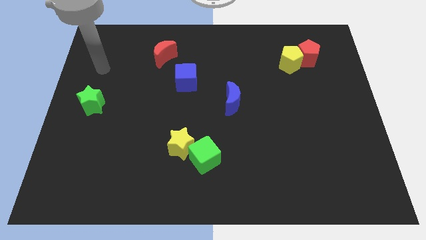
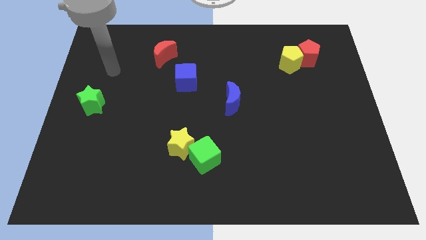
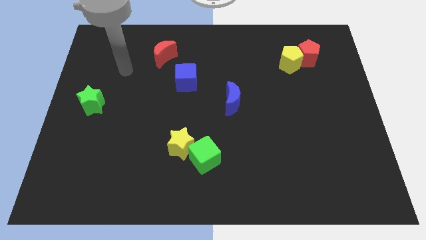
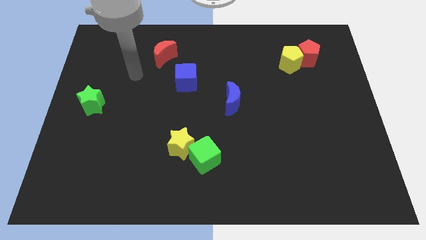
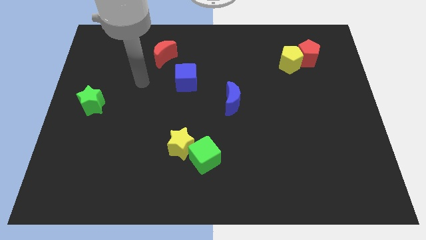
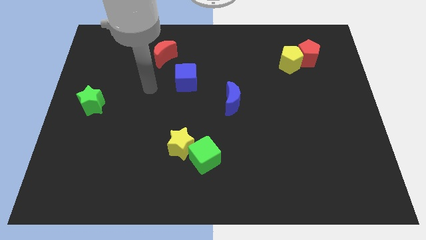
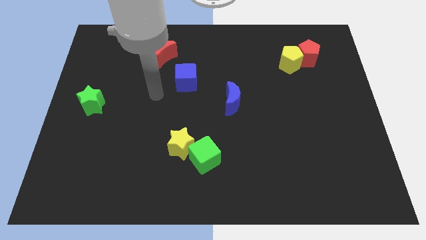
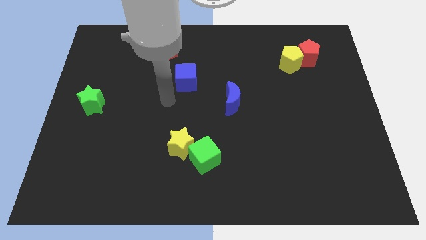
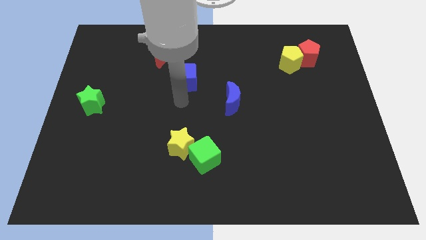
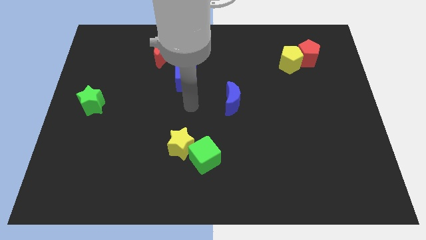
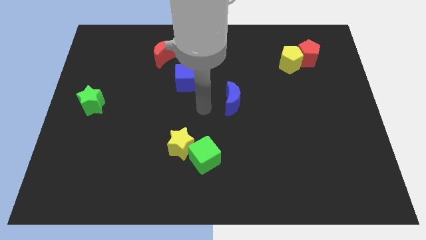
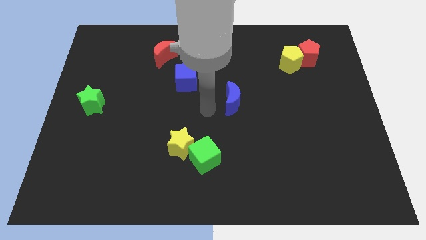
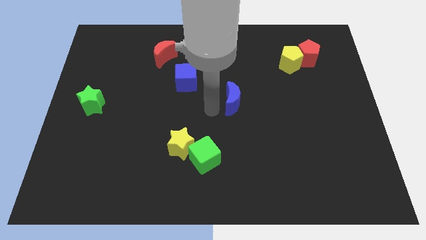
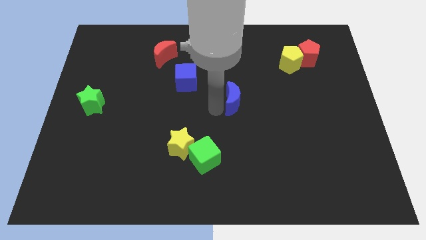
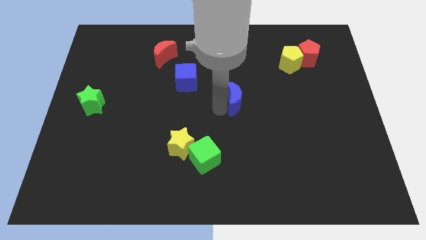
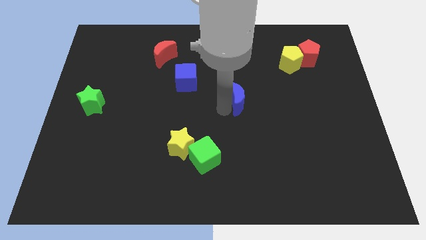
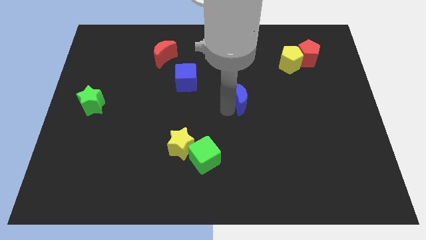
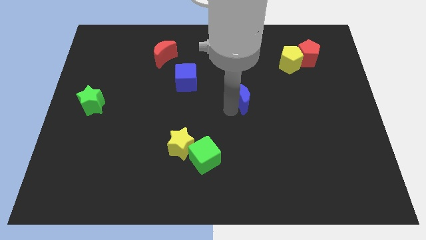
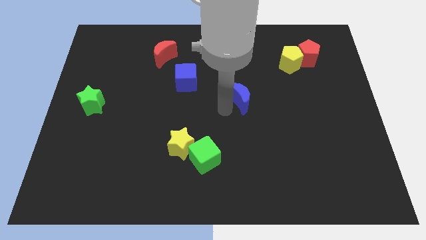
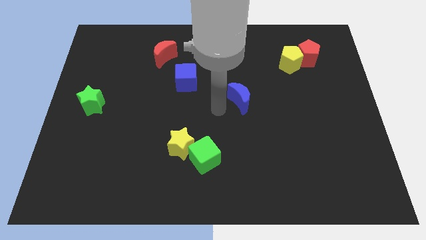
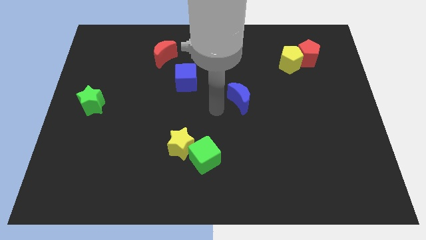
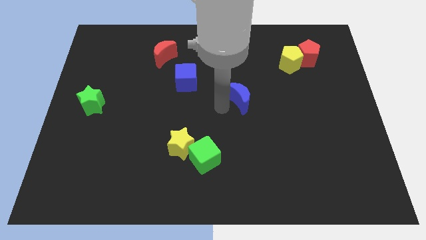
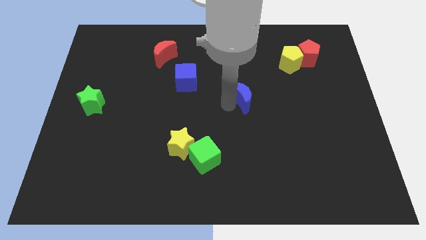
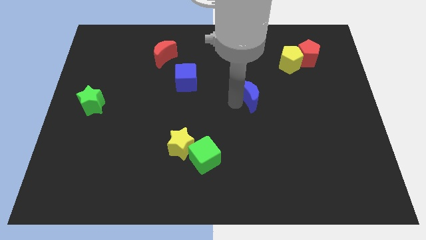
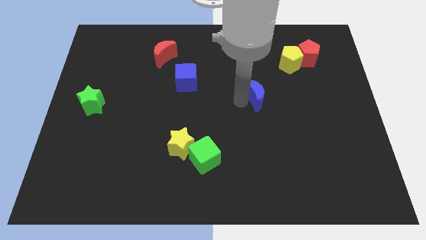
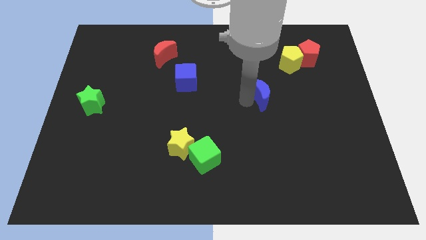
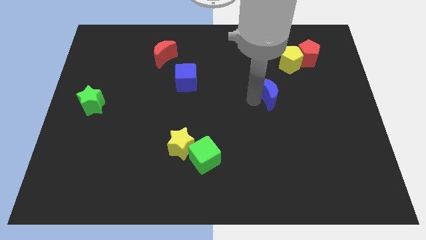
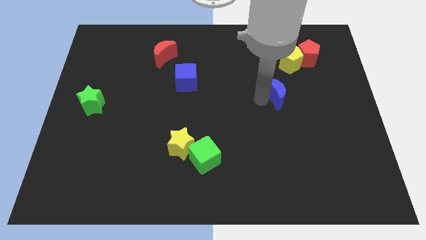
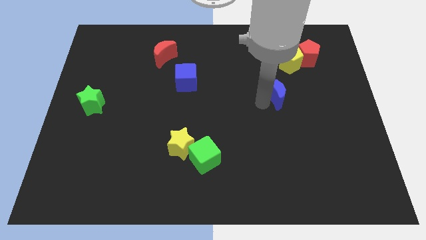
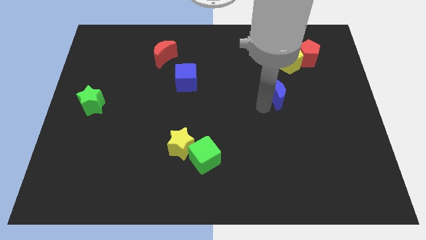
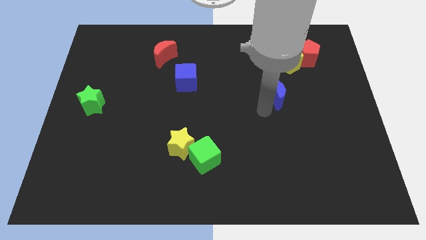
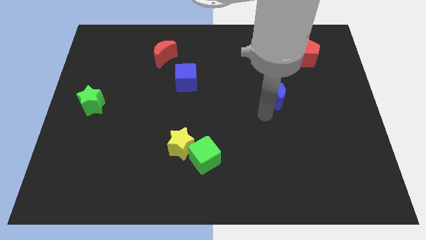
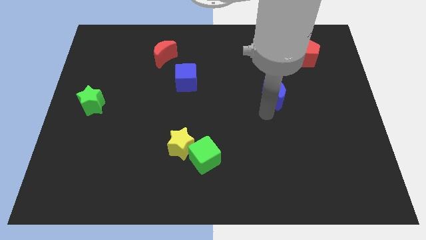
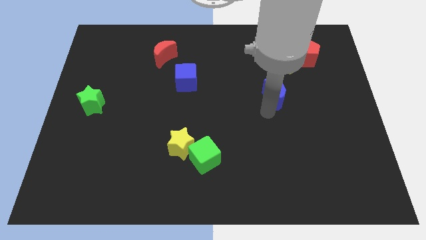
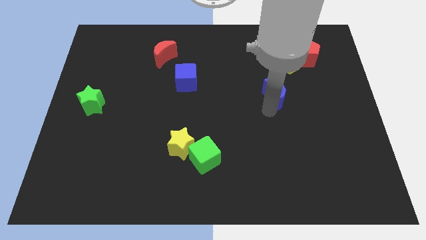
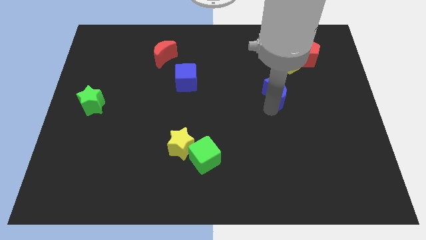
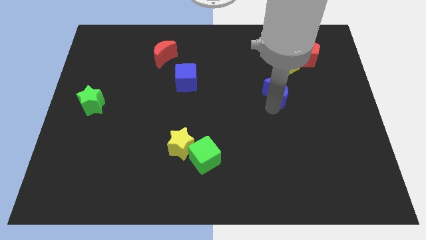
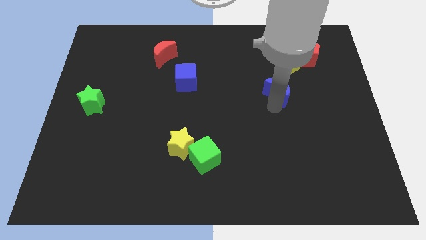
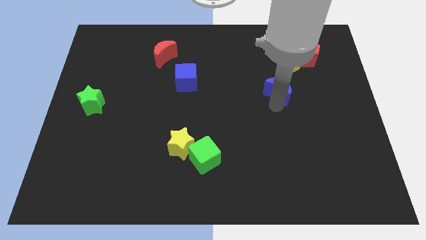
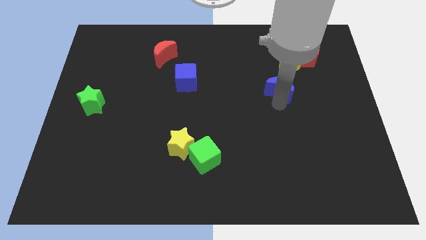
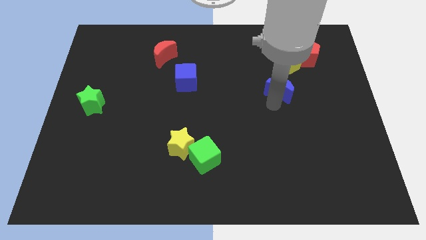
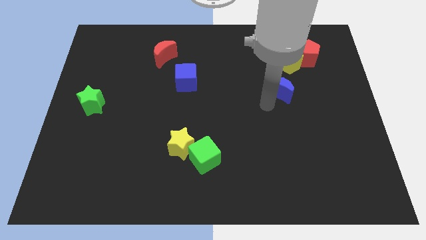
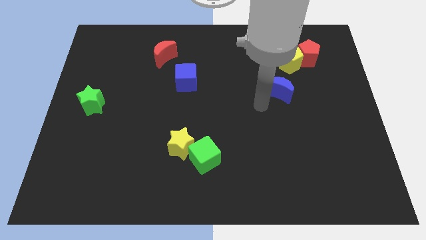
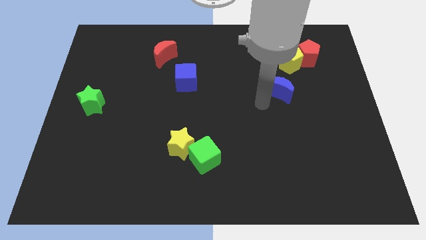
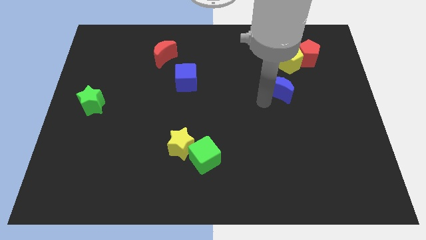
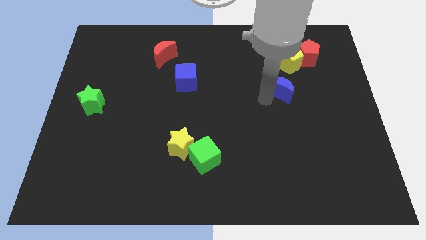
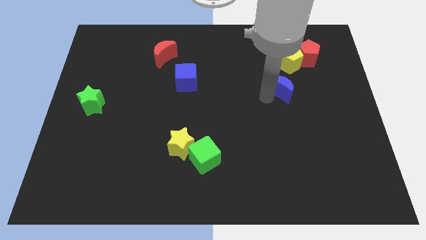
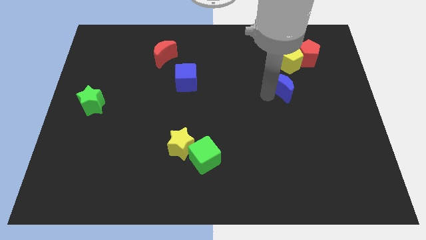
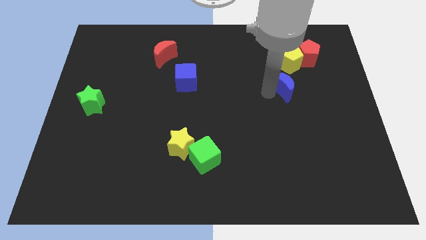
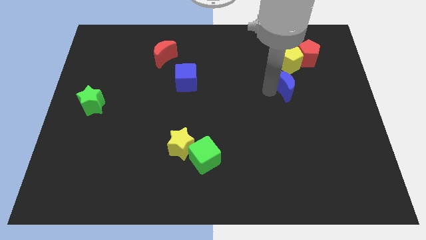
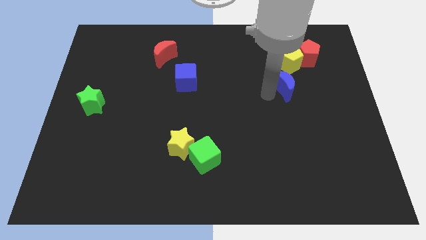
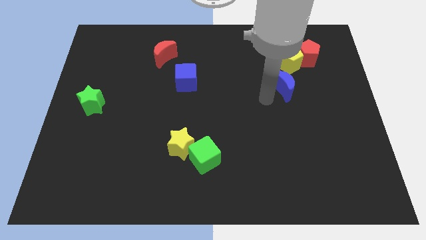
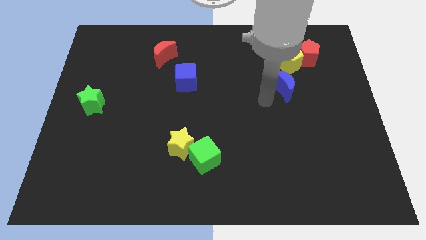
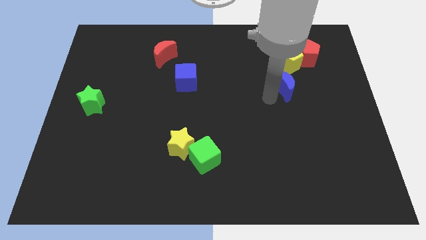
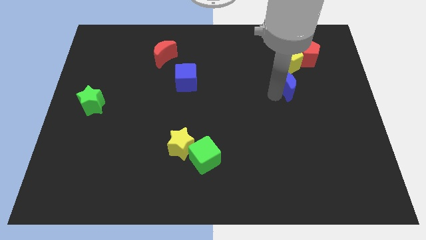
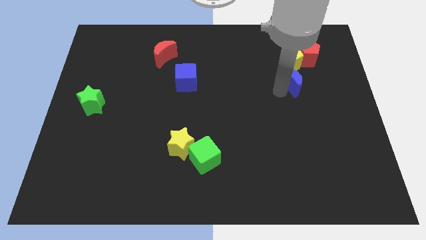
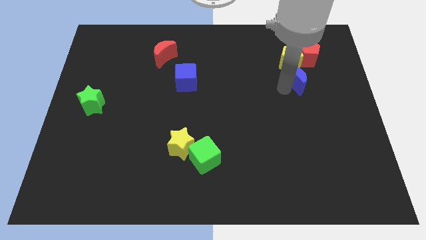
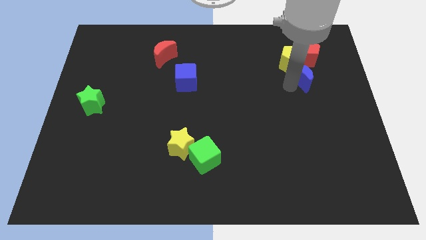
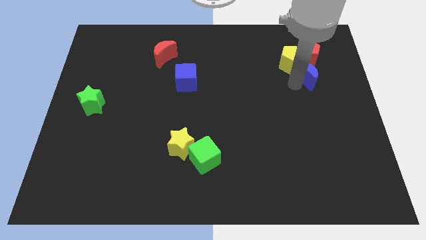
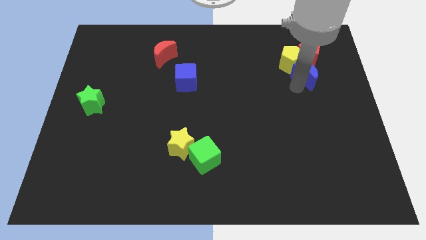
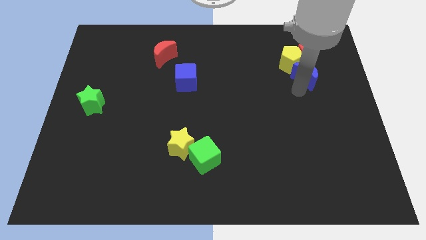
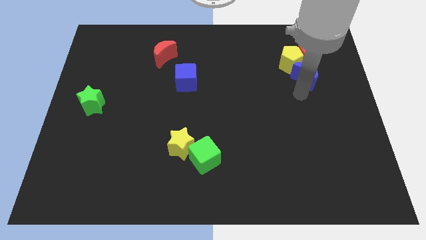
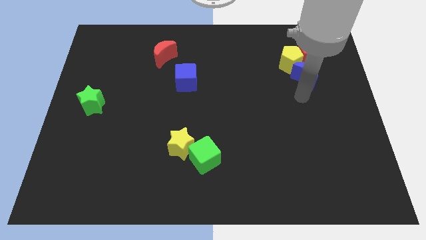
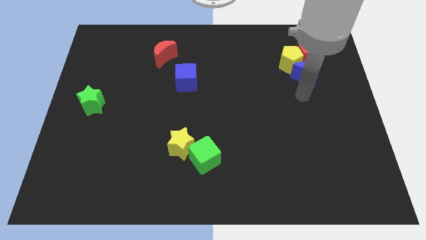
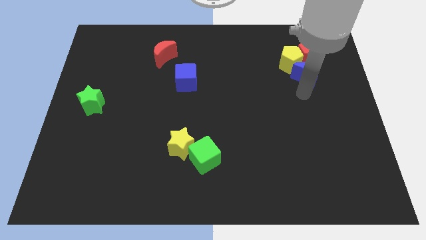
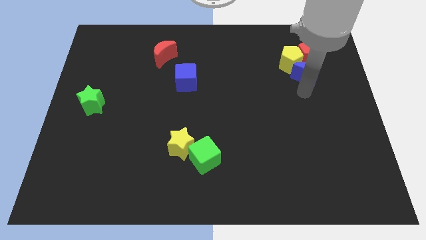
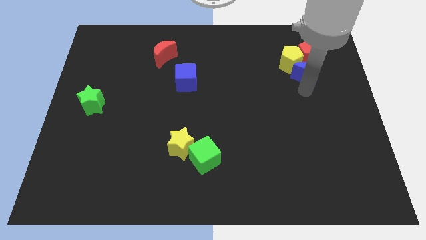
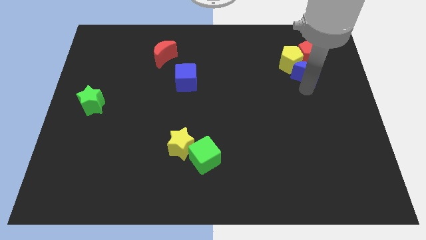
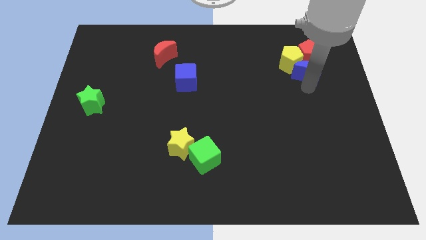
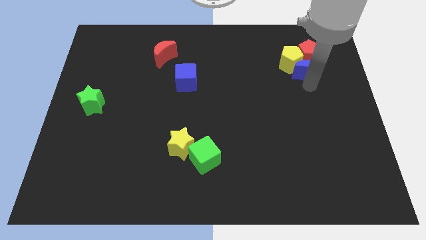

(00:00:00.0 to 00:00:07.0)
push the blue moon next to the red pentagon

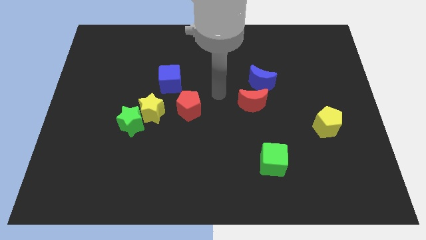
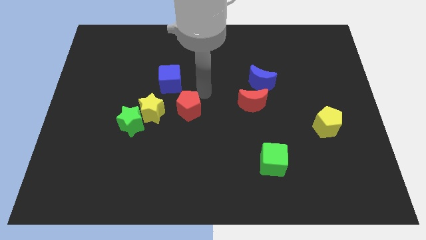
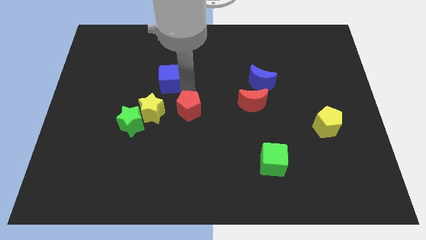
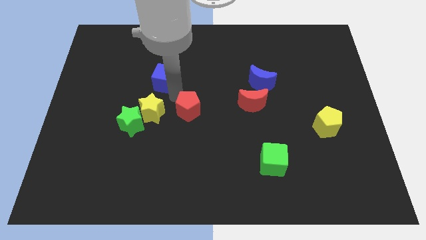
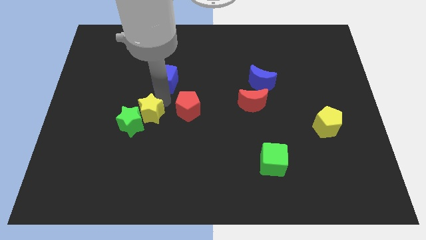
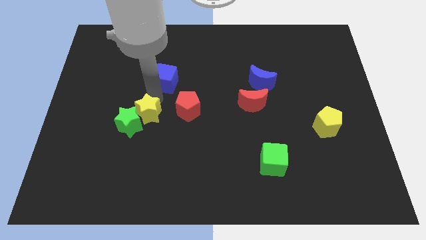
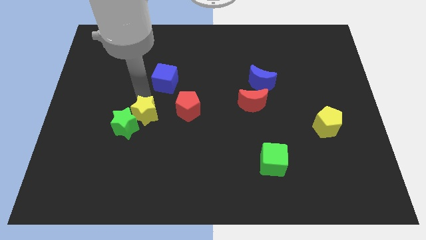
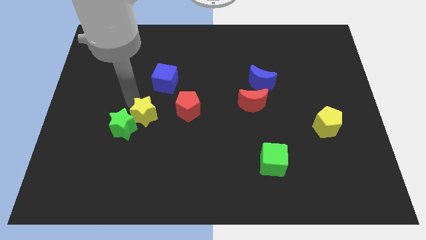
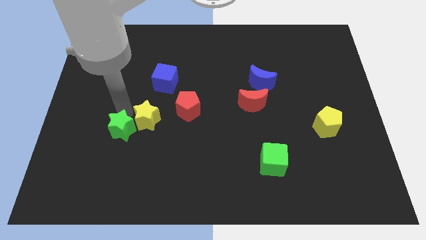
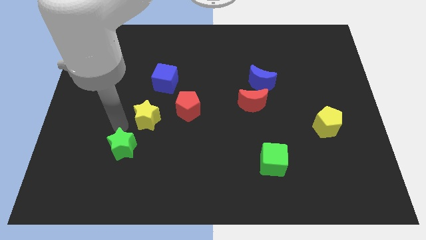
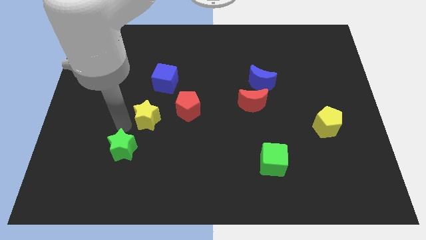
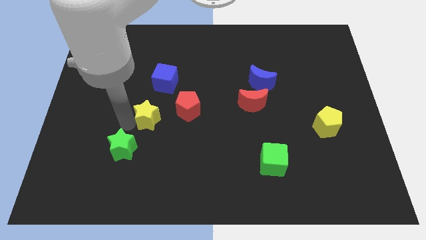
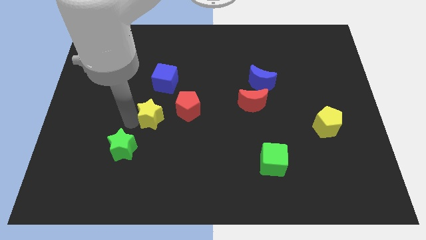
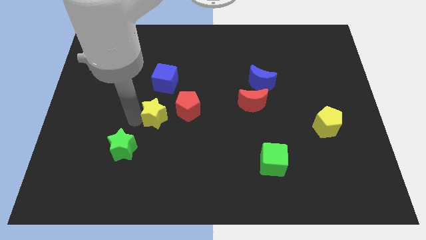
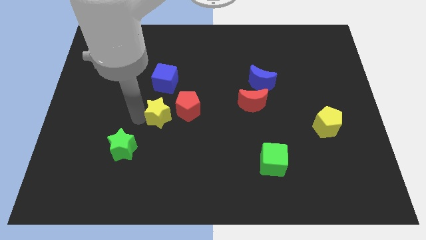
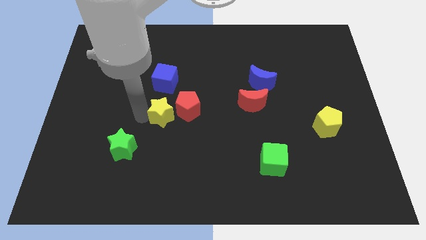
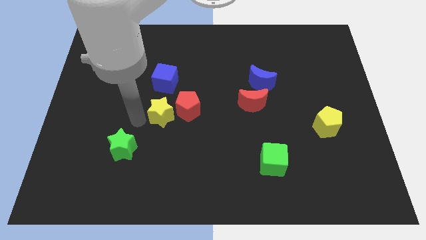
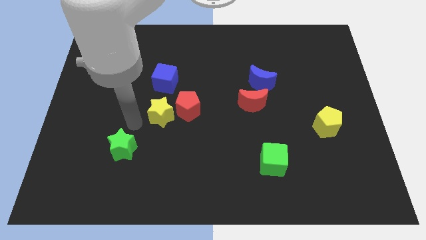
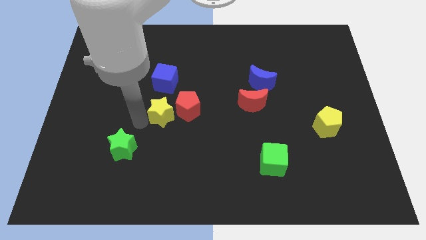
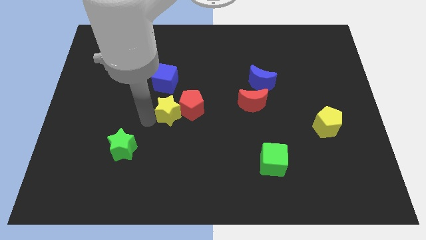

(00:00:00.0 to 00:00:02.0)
put the yellow star to the red pentagon
